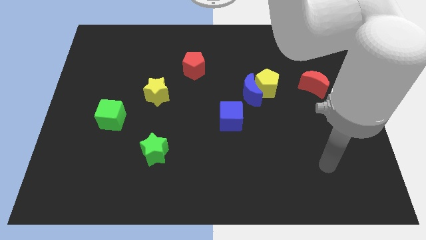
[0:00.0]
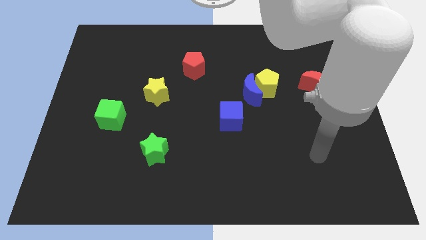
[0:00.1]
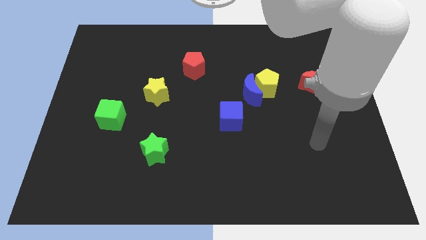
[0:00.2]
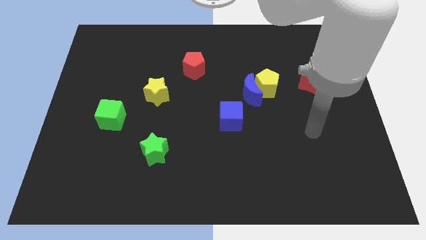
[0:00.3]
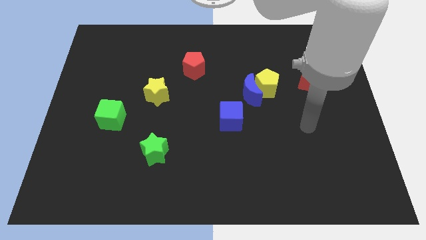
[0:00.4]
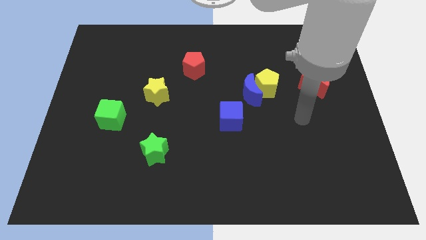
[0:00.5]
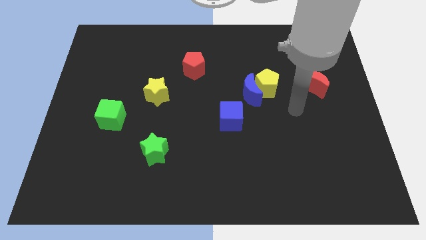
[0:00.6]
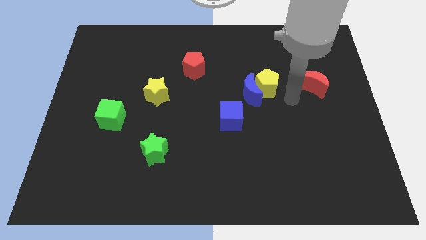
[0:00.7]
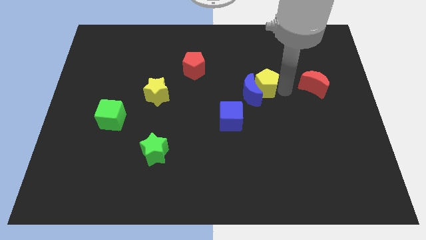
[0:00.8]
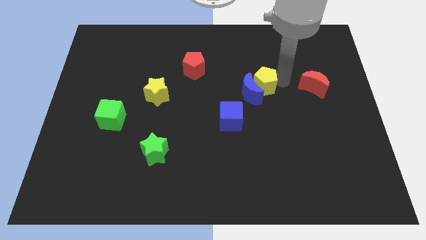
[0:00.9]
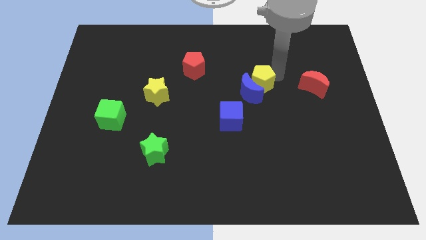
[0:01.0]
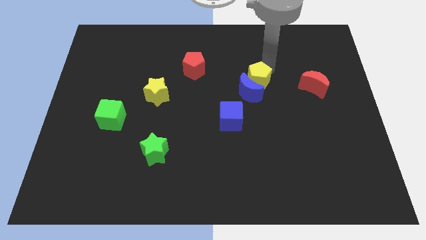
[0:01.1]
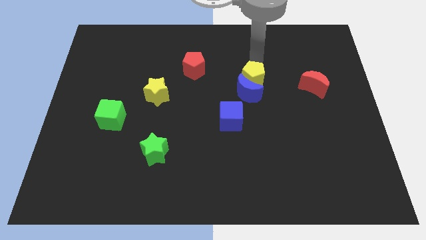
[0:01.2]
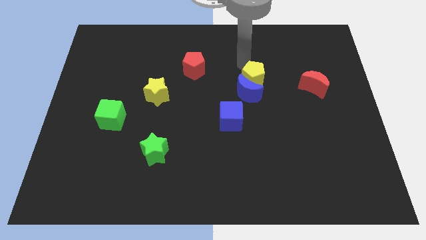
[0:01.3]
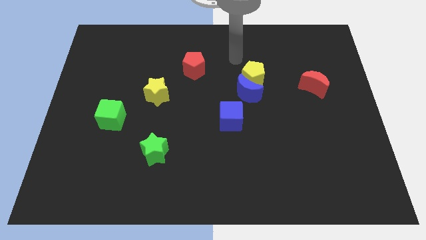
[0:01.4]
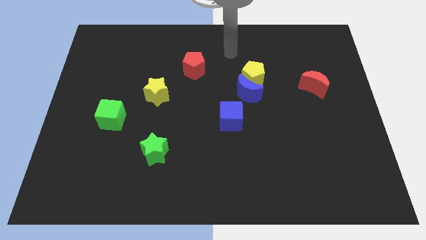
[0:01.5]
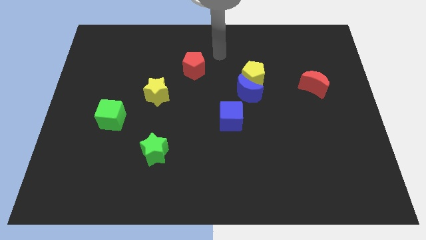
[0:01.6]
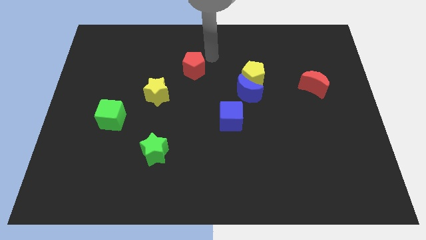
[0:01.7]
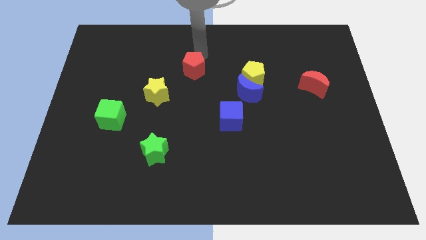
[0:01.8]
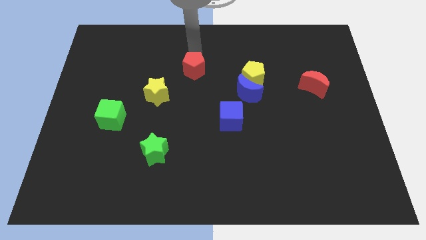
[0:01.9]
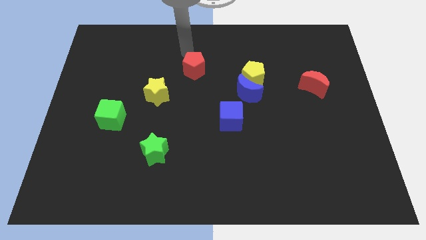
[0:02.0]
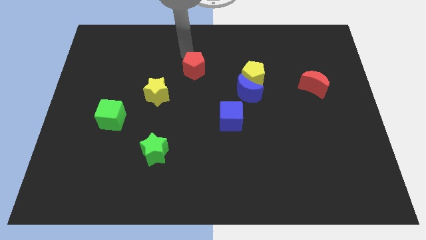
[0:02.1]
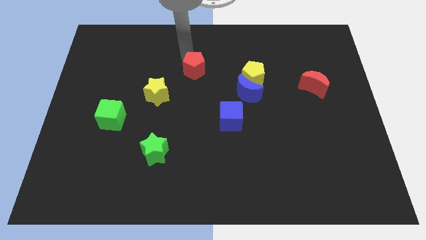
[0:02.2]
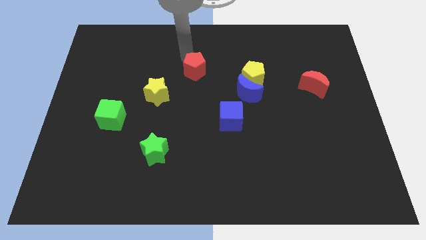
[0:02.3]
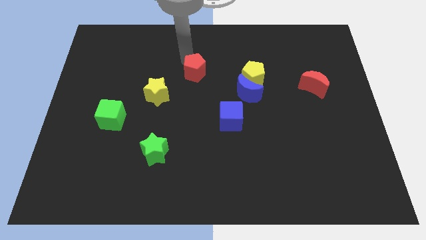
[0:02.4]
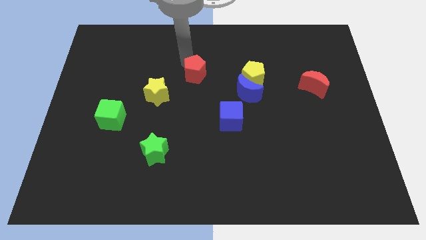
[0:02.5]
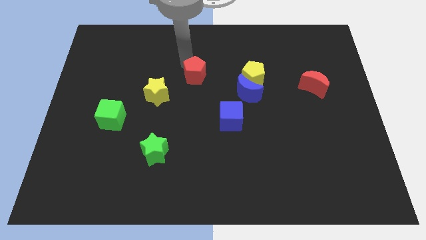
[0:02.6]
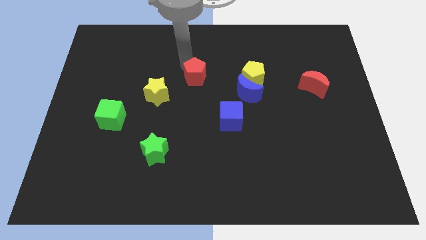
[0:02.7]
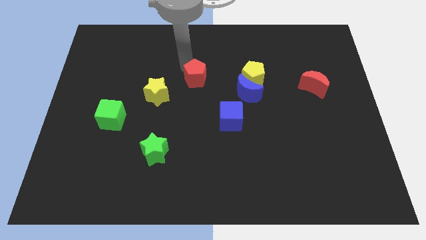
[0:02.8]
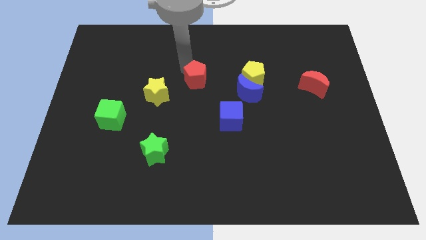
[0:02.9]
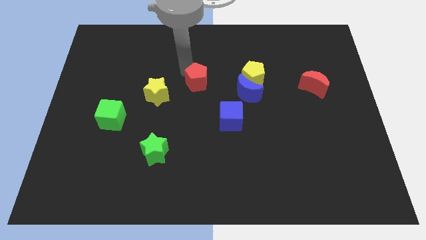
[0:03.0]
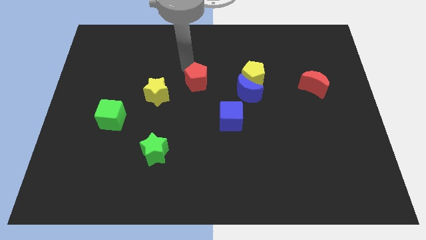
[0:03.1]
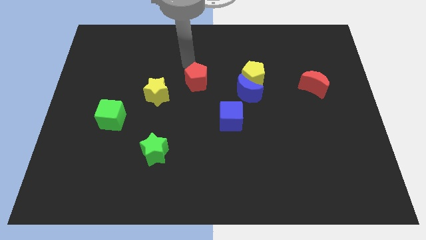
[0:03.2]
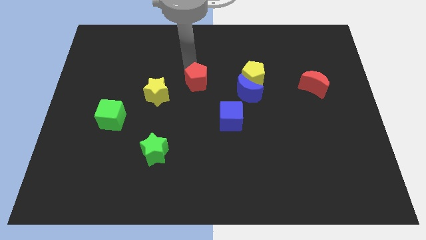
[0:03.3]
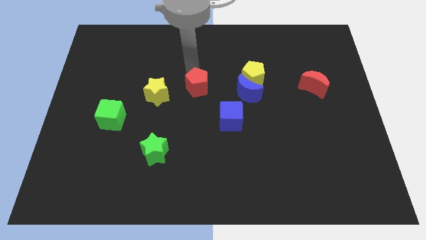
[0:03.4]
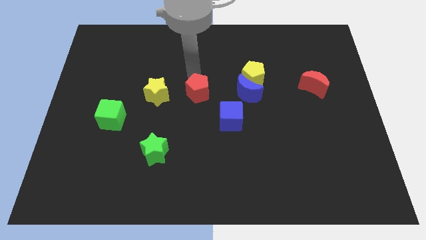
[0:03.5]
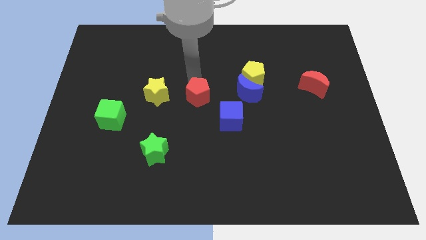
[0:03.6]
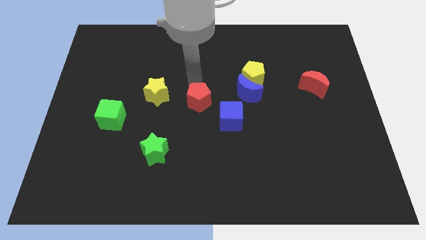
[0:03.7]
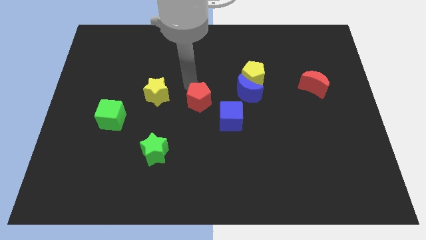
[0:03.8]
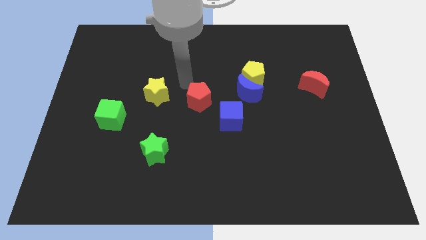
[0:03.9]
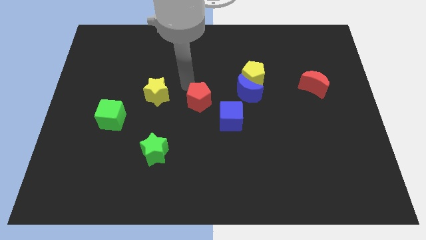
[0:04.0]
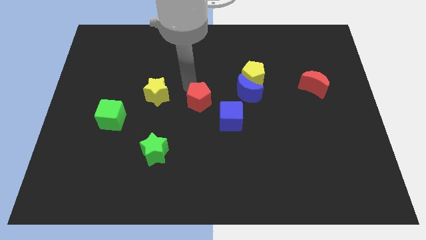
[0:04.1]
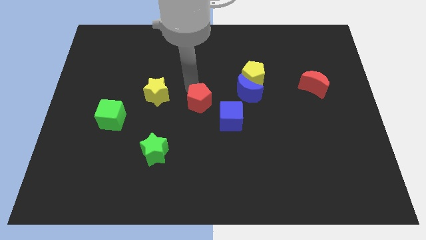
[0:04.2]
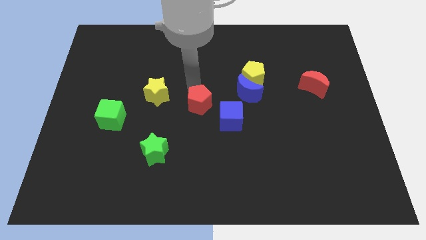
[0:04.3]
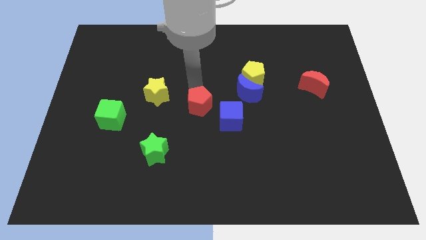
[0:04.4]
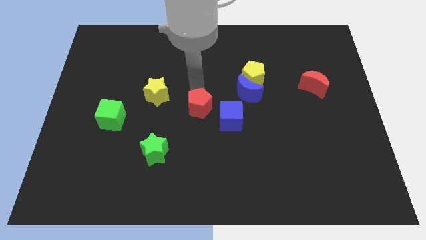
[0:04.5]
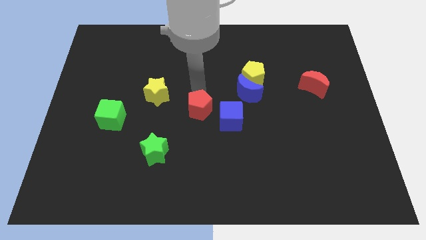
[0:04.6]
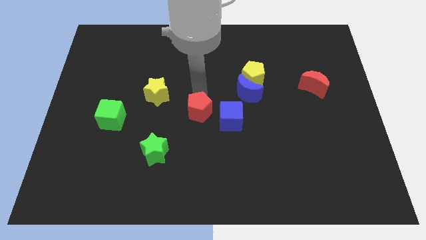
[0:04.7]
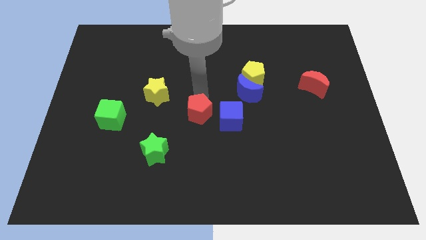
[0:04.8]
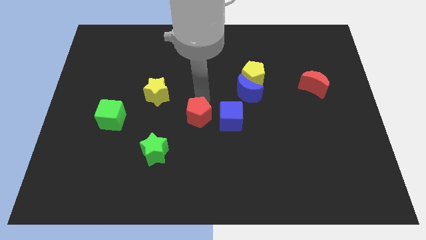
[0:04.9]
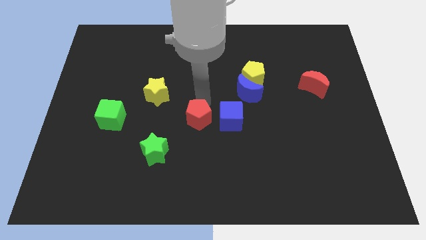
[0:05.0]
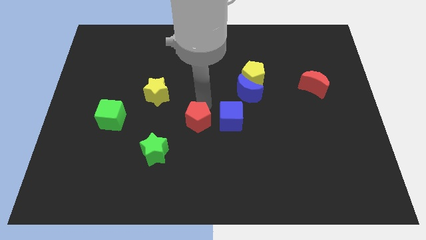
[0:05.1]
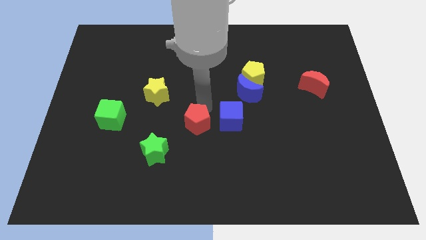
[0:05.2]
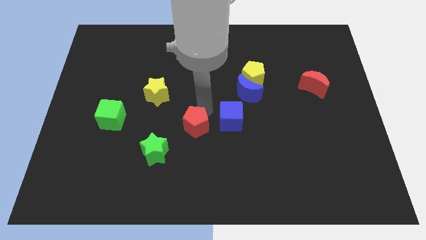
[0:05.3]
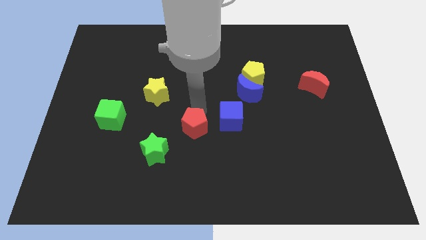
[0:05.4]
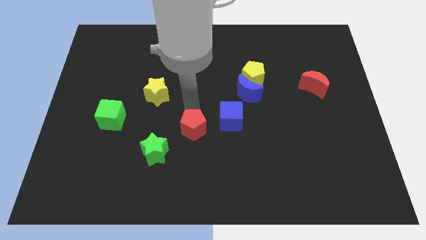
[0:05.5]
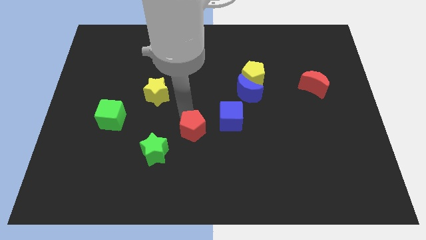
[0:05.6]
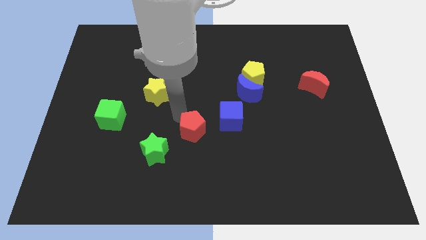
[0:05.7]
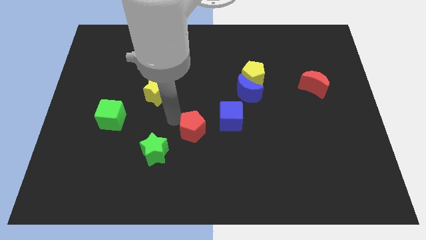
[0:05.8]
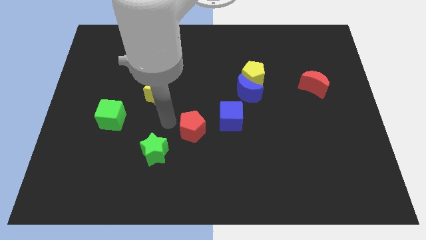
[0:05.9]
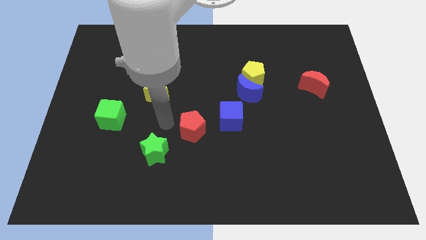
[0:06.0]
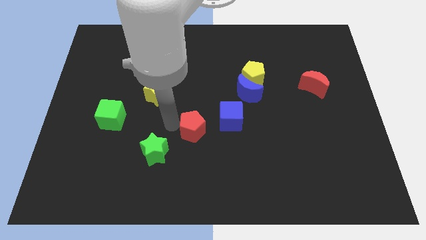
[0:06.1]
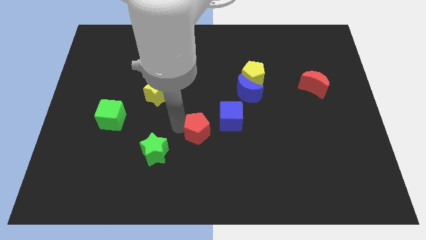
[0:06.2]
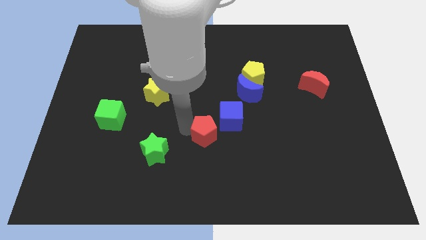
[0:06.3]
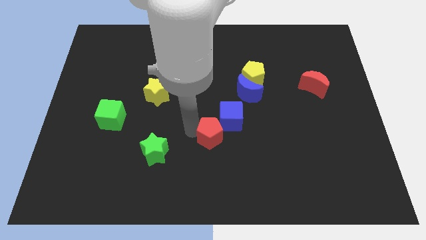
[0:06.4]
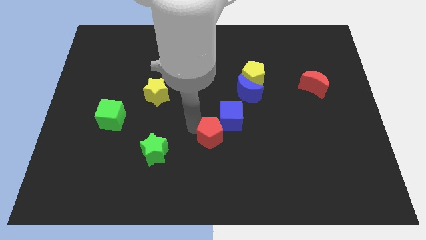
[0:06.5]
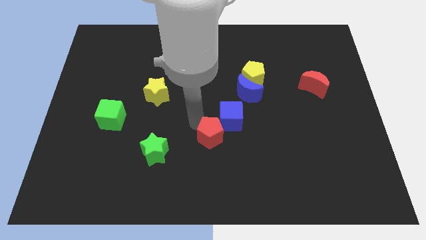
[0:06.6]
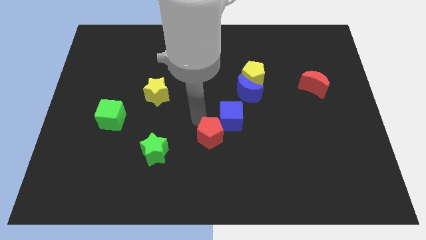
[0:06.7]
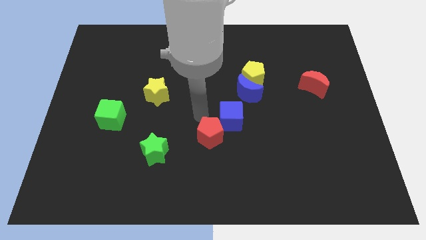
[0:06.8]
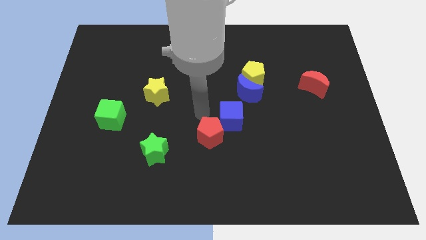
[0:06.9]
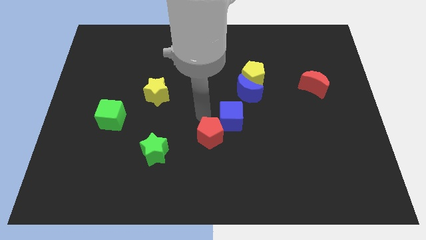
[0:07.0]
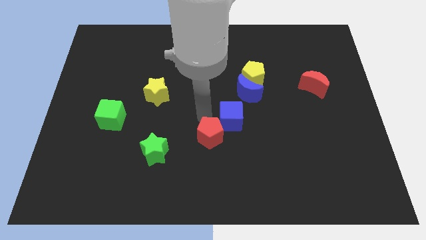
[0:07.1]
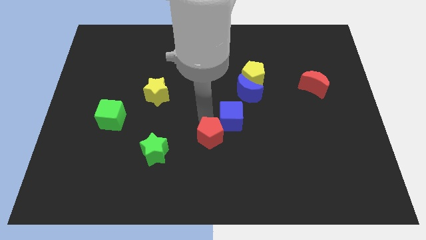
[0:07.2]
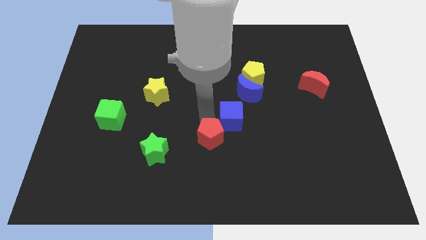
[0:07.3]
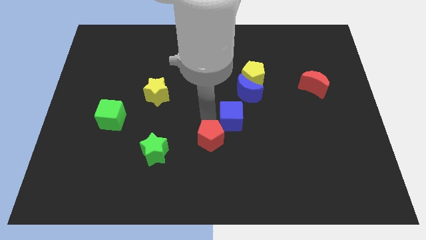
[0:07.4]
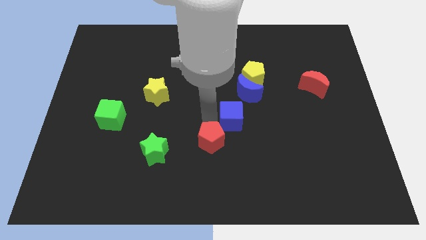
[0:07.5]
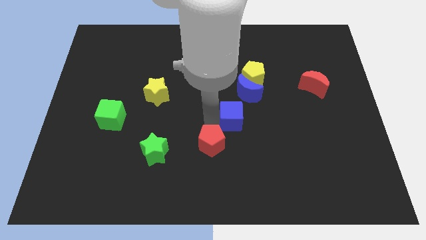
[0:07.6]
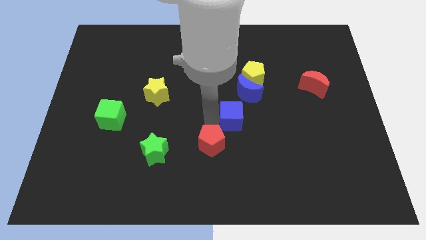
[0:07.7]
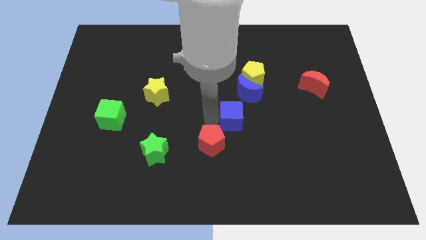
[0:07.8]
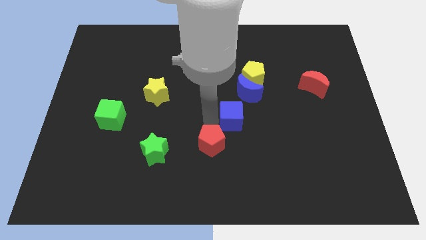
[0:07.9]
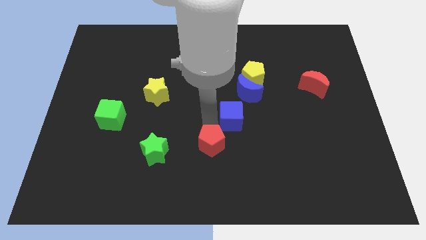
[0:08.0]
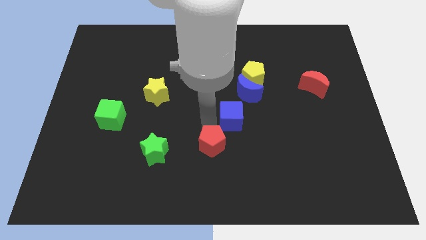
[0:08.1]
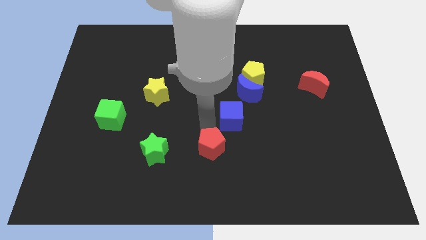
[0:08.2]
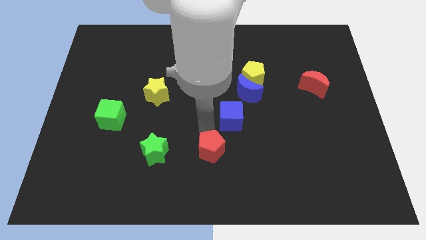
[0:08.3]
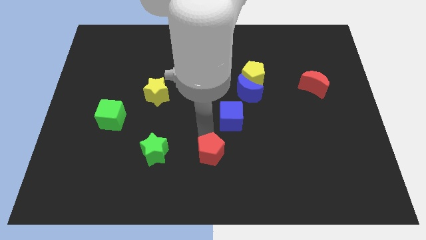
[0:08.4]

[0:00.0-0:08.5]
put the red pentagon to the bottom
